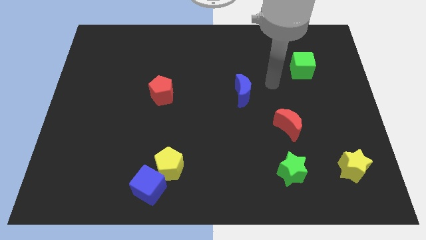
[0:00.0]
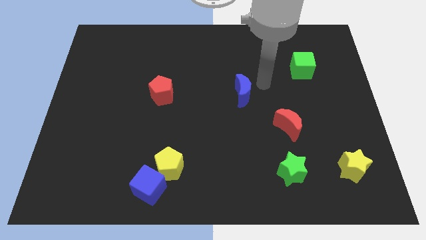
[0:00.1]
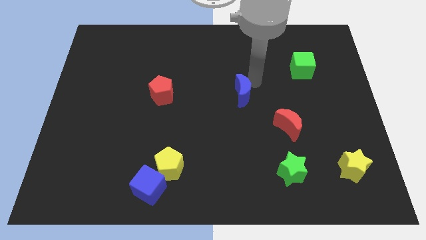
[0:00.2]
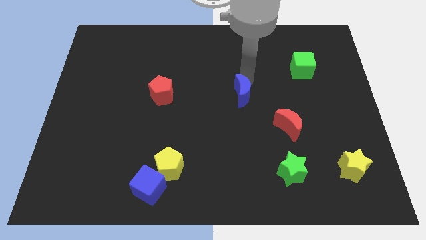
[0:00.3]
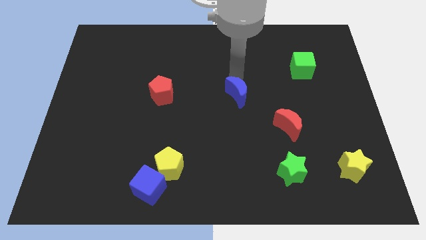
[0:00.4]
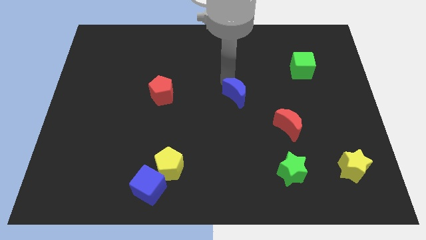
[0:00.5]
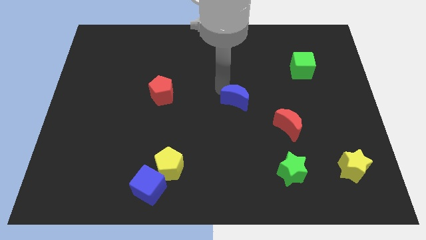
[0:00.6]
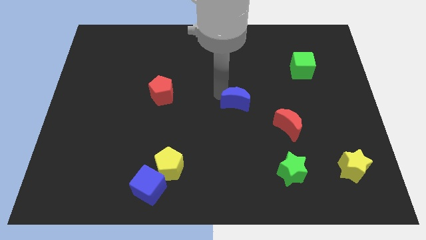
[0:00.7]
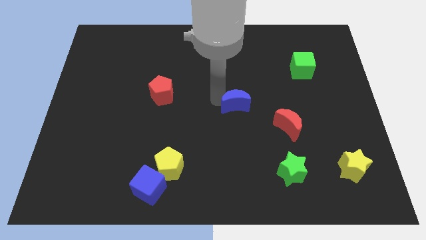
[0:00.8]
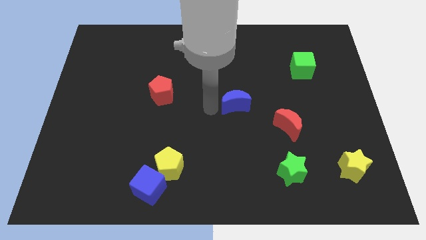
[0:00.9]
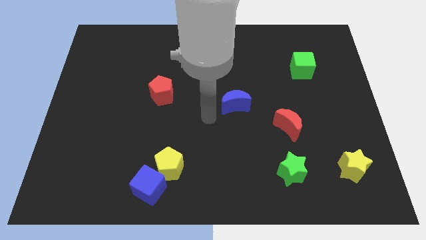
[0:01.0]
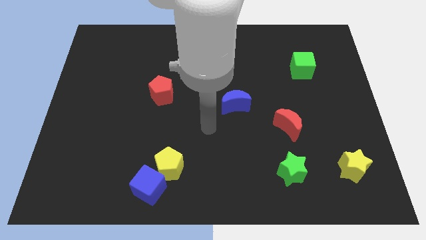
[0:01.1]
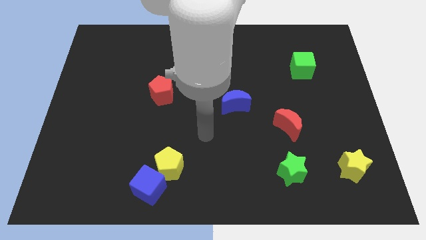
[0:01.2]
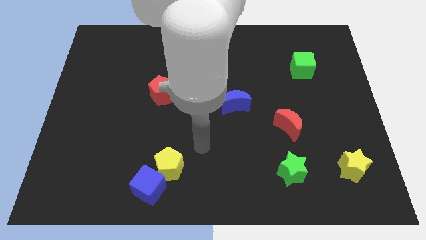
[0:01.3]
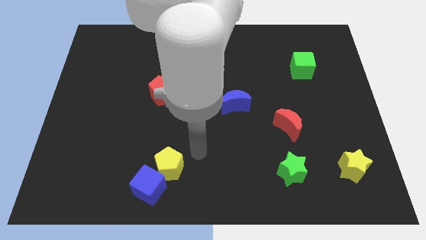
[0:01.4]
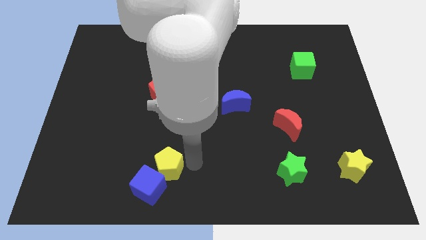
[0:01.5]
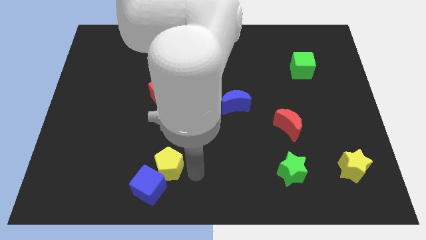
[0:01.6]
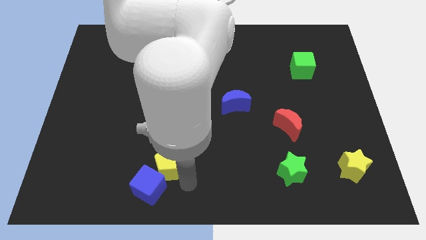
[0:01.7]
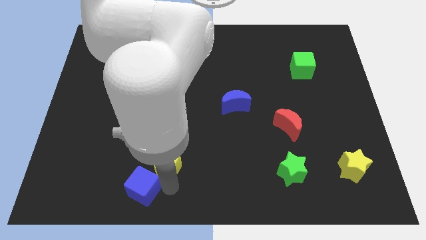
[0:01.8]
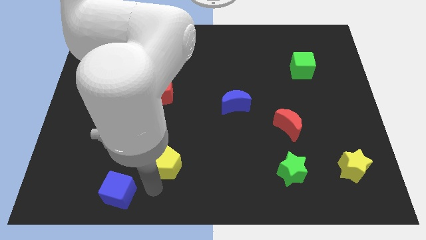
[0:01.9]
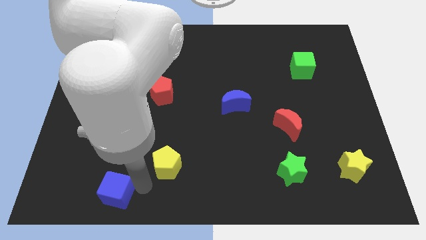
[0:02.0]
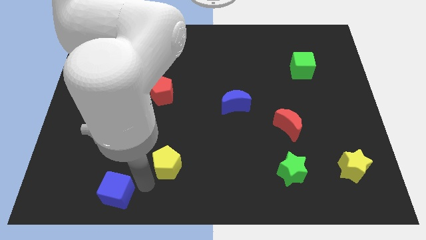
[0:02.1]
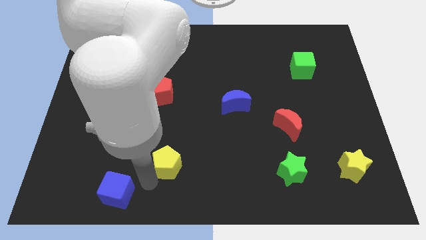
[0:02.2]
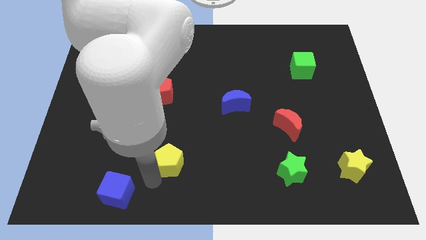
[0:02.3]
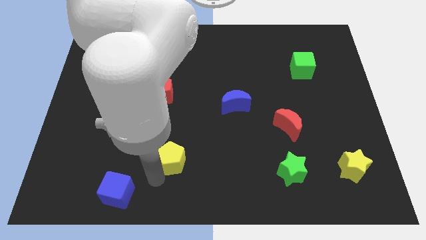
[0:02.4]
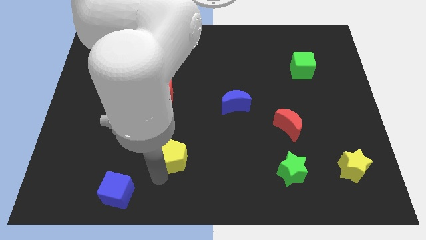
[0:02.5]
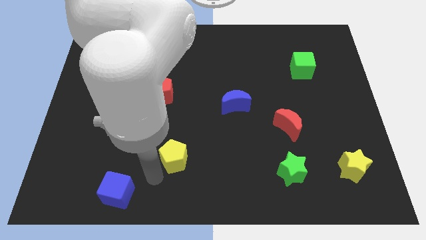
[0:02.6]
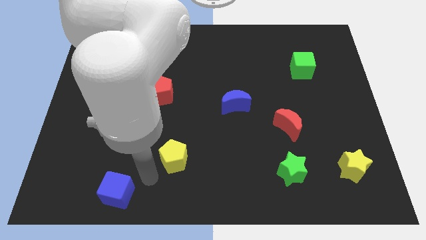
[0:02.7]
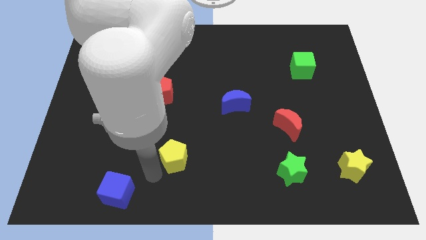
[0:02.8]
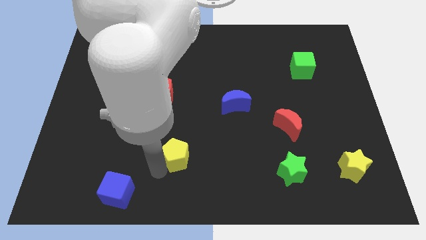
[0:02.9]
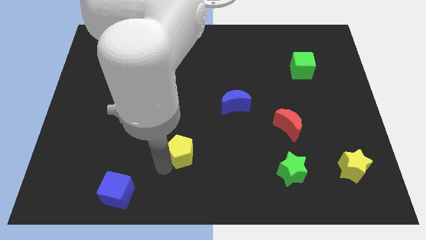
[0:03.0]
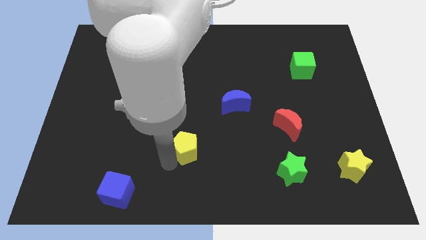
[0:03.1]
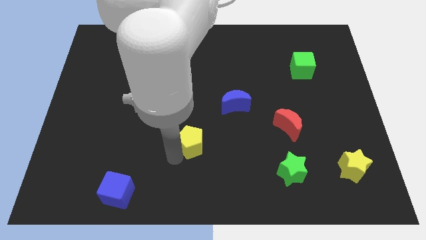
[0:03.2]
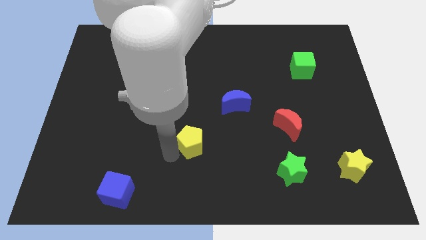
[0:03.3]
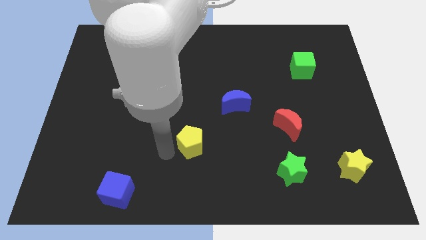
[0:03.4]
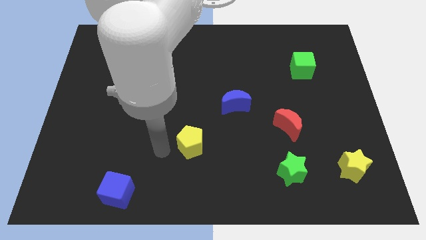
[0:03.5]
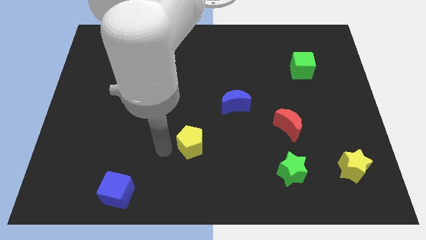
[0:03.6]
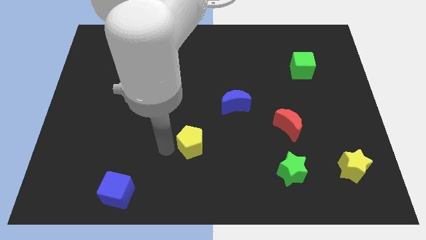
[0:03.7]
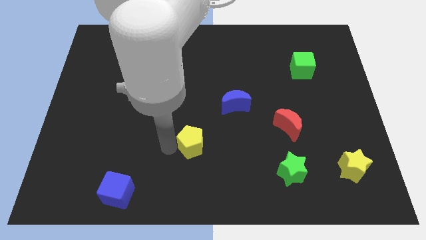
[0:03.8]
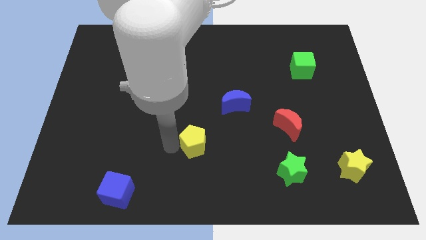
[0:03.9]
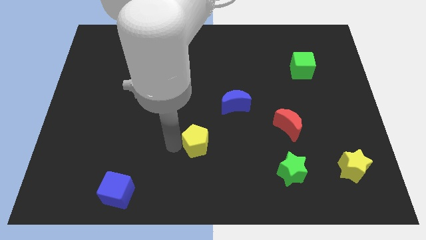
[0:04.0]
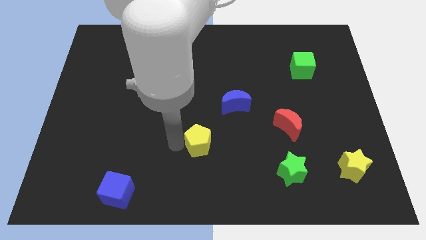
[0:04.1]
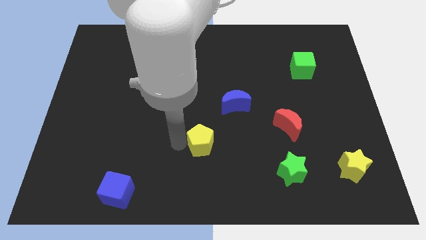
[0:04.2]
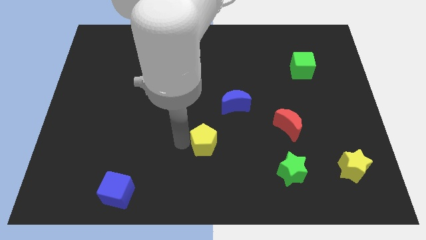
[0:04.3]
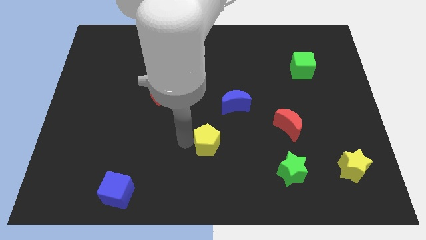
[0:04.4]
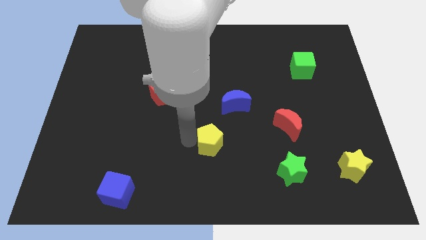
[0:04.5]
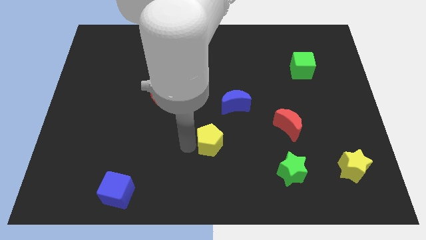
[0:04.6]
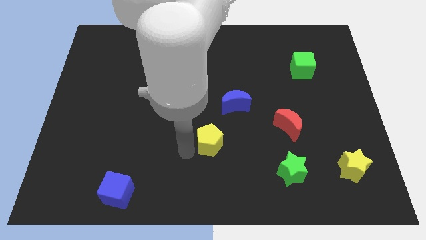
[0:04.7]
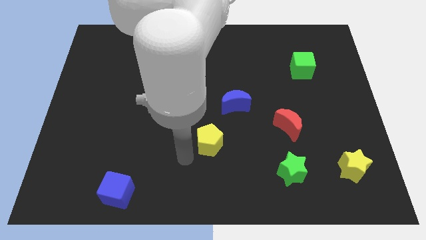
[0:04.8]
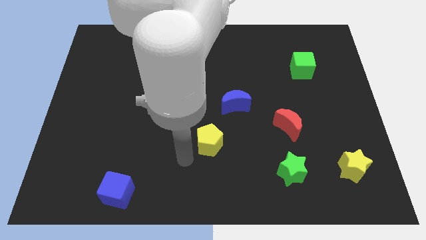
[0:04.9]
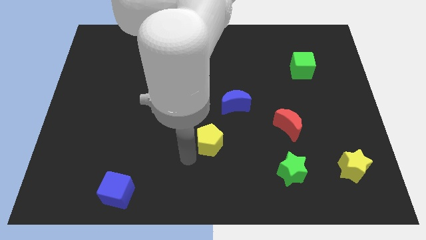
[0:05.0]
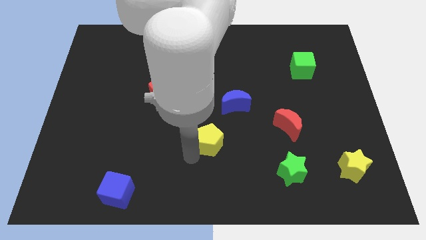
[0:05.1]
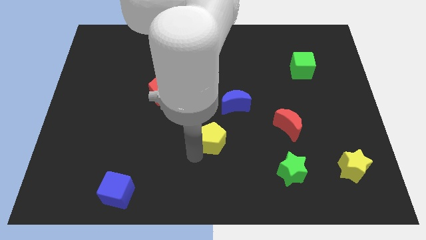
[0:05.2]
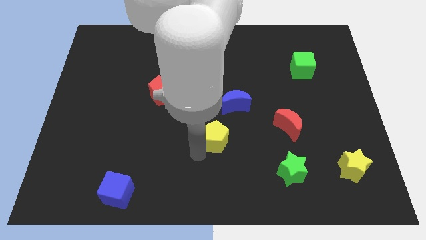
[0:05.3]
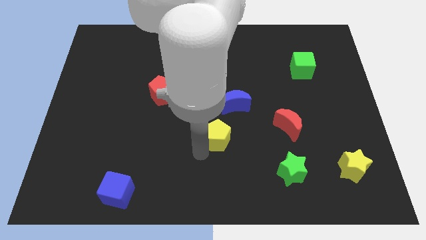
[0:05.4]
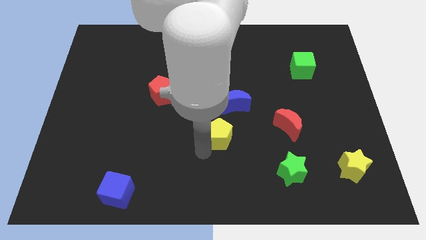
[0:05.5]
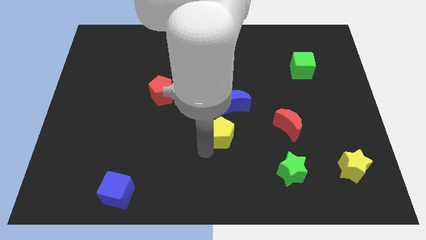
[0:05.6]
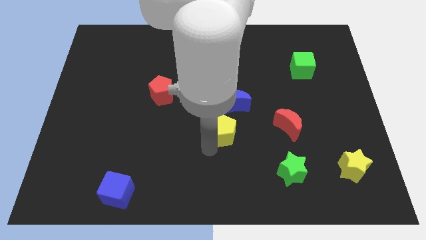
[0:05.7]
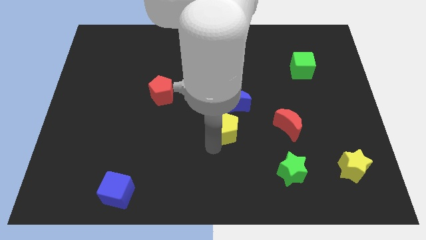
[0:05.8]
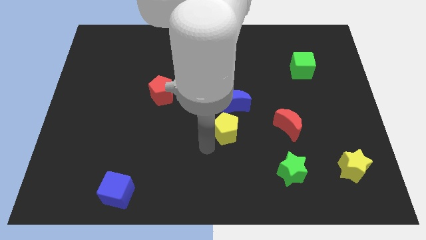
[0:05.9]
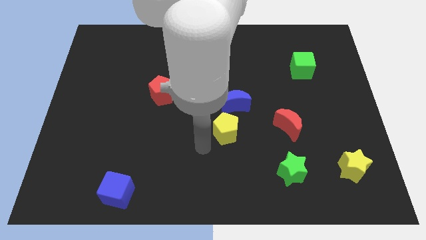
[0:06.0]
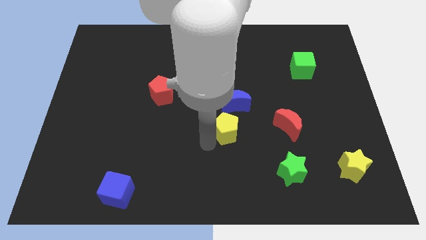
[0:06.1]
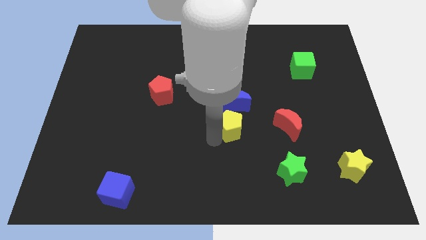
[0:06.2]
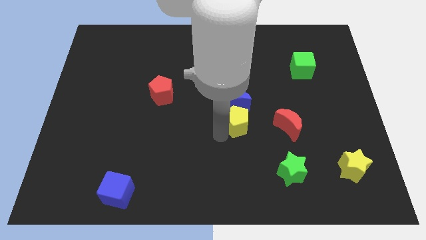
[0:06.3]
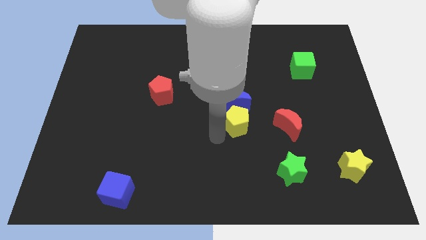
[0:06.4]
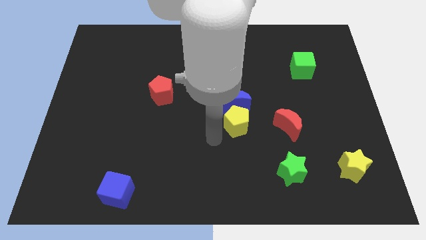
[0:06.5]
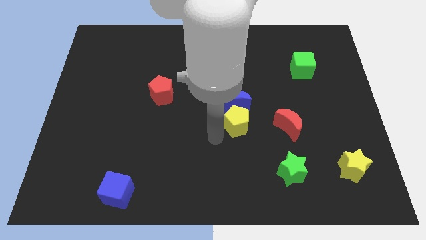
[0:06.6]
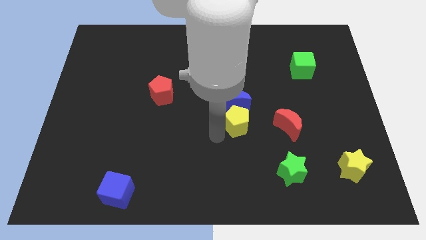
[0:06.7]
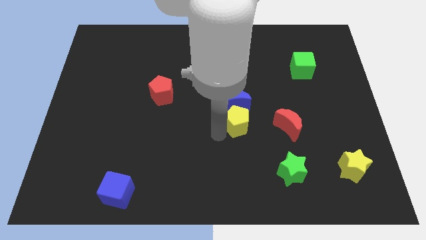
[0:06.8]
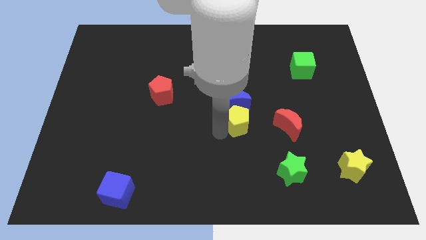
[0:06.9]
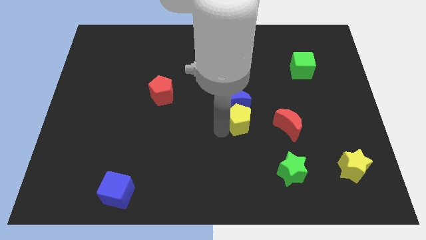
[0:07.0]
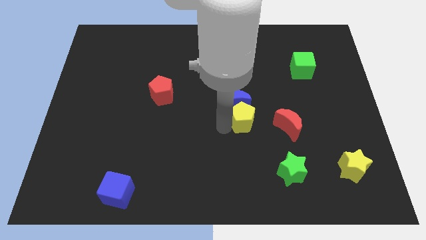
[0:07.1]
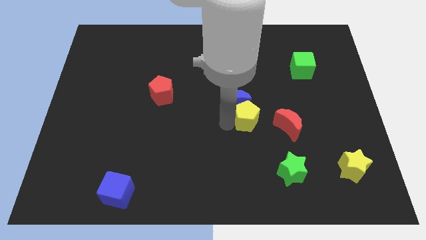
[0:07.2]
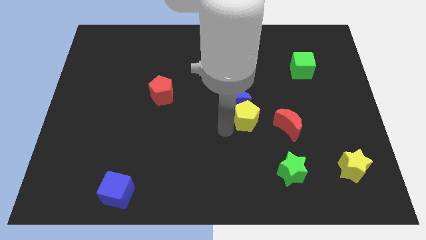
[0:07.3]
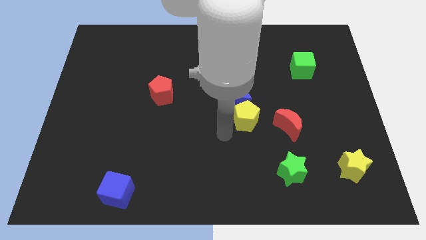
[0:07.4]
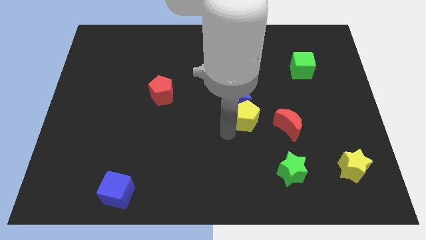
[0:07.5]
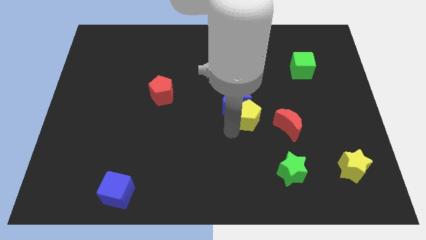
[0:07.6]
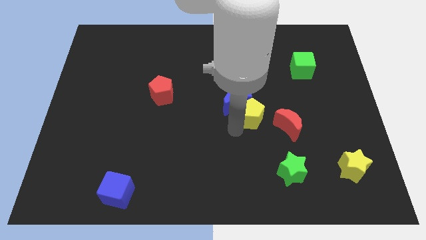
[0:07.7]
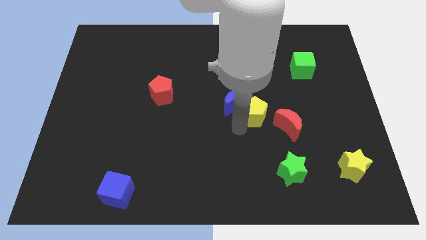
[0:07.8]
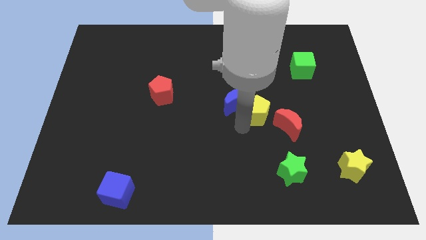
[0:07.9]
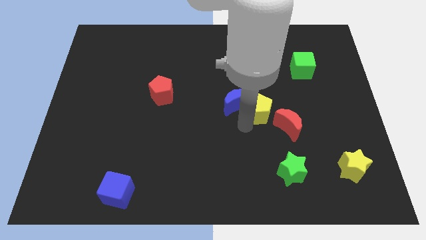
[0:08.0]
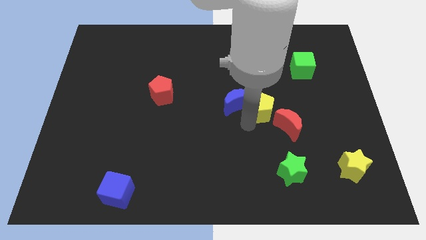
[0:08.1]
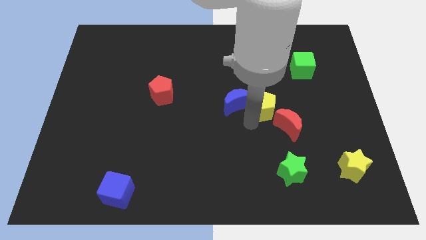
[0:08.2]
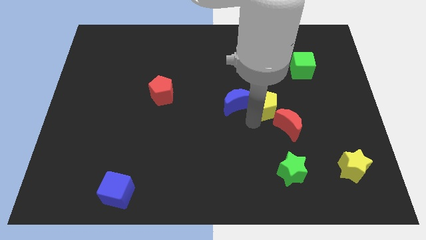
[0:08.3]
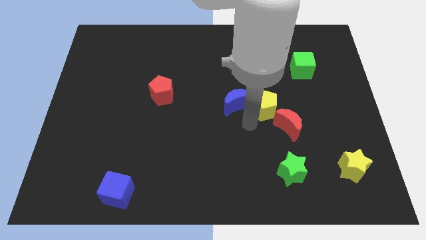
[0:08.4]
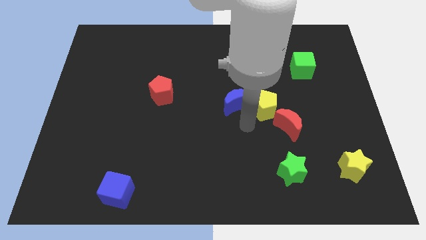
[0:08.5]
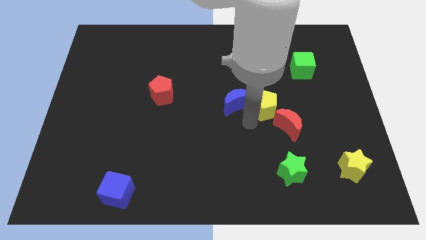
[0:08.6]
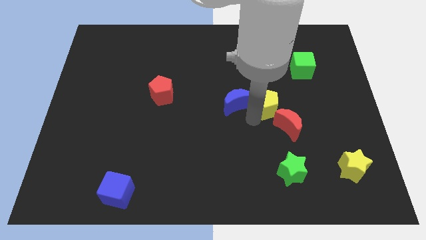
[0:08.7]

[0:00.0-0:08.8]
push the yellow pentagon to the top of the red moon
